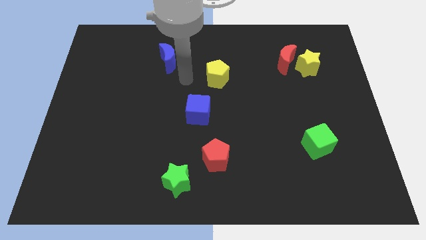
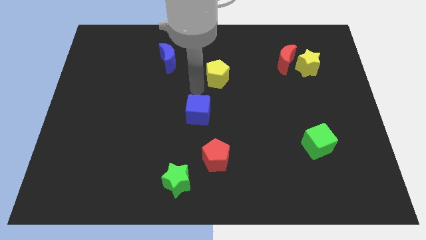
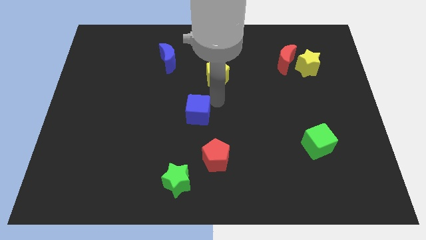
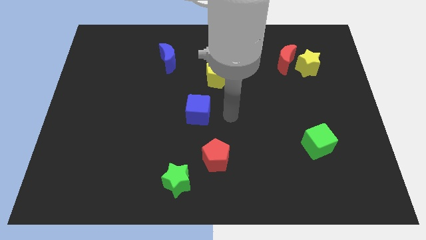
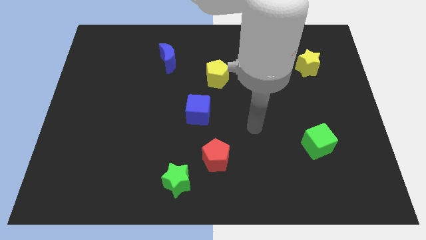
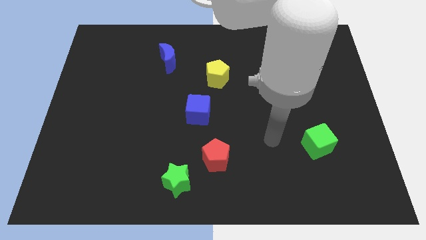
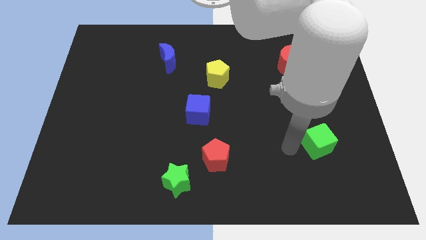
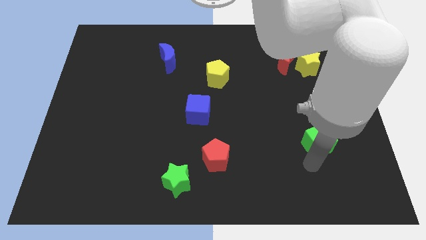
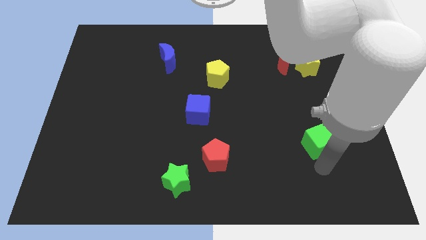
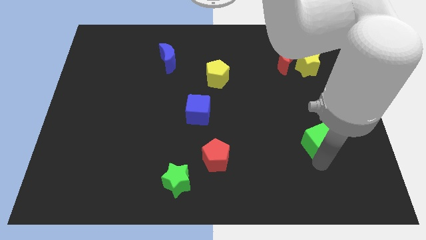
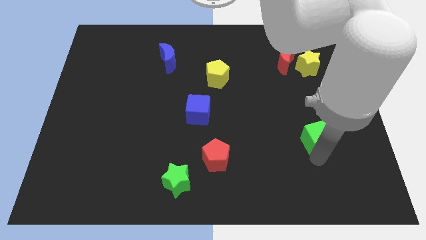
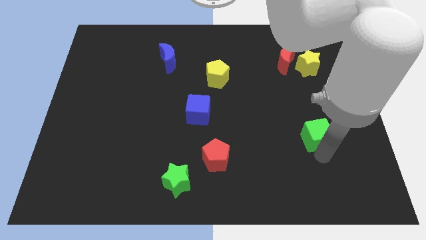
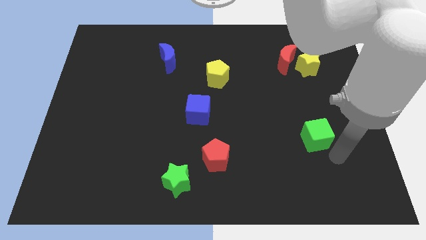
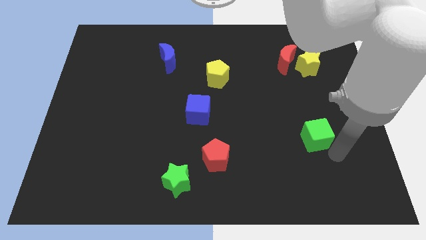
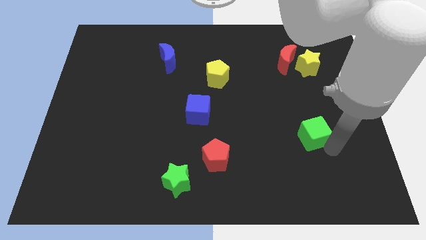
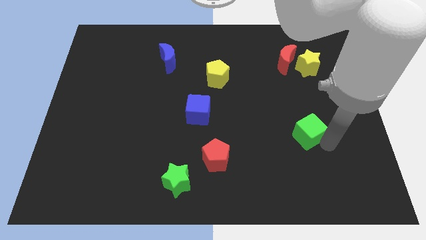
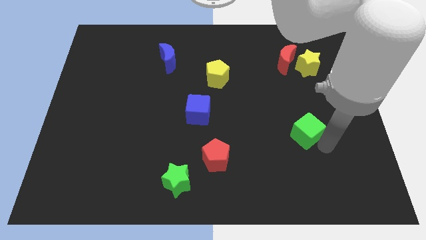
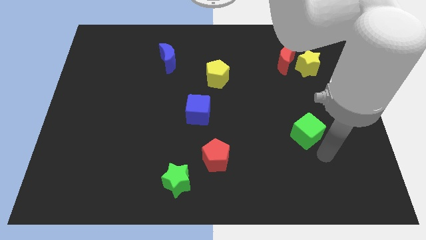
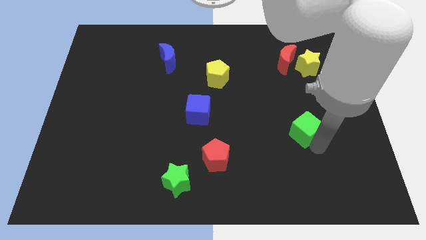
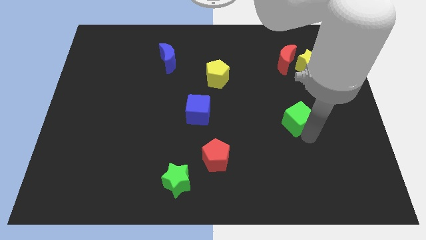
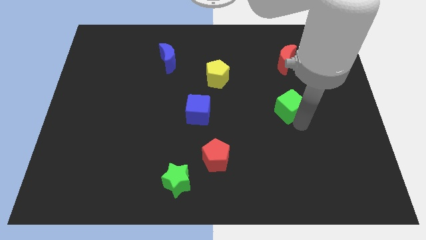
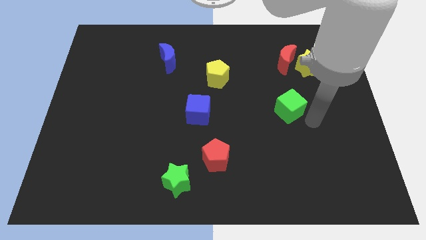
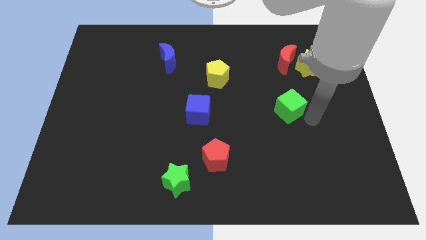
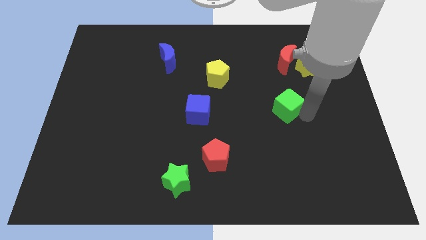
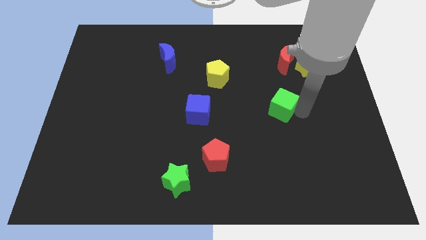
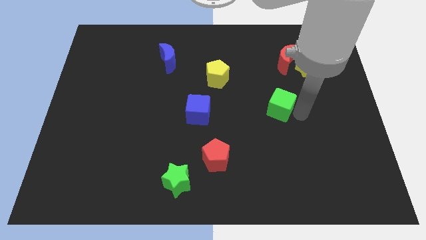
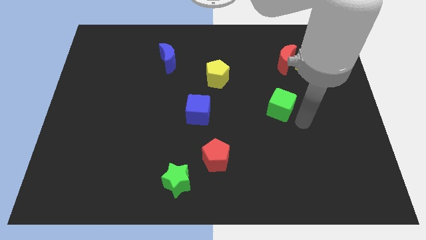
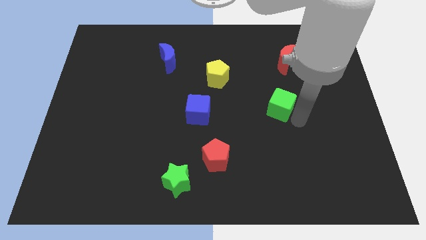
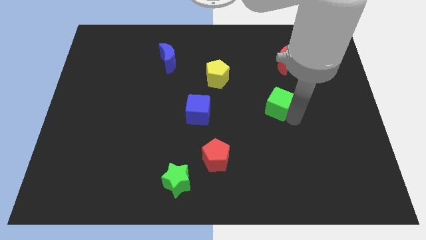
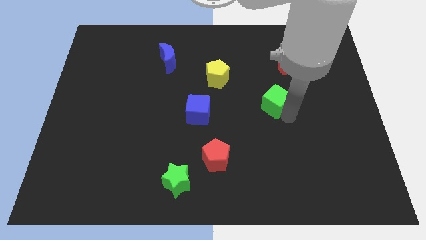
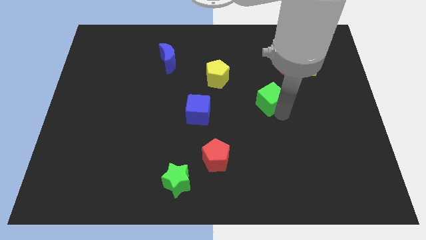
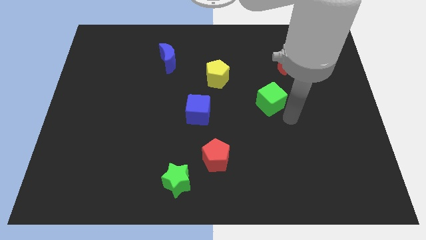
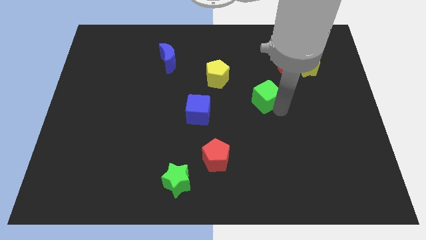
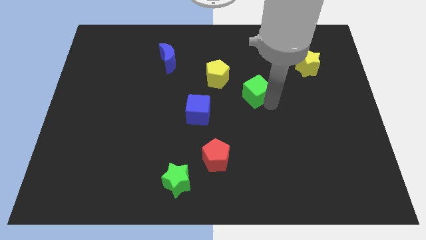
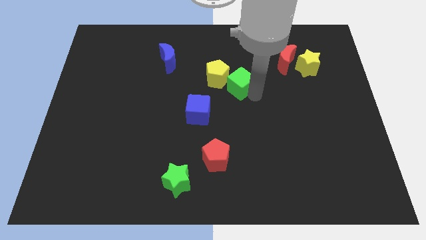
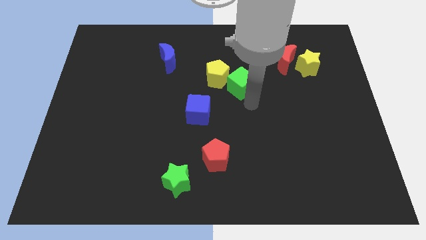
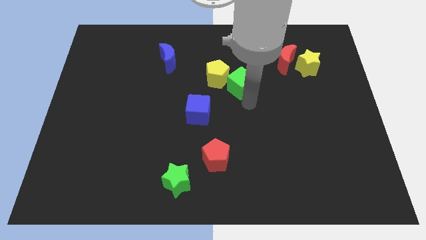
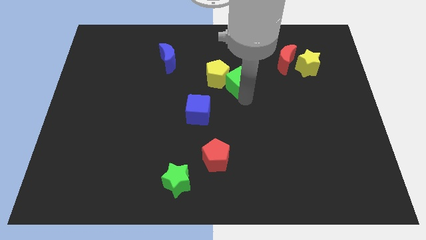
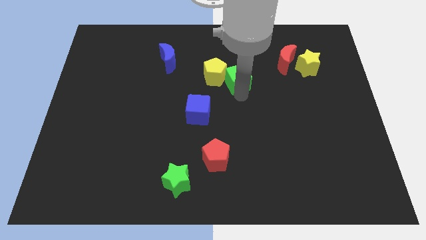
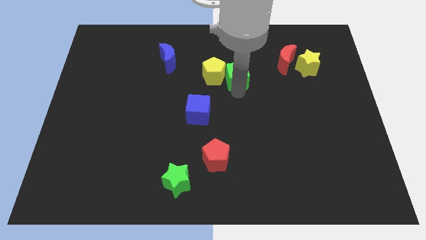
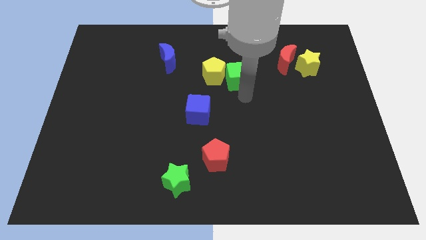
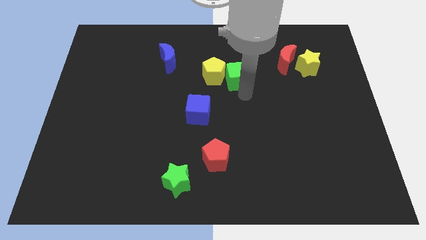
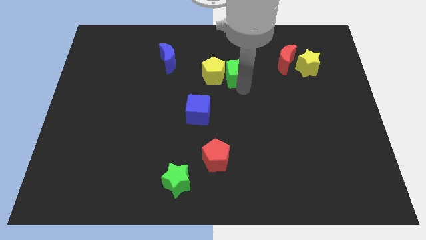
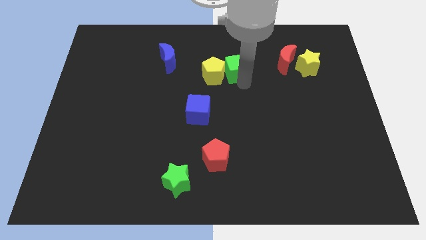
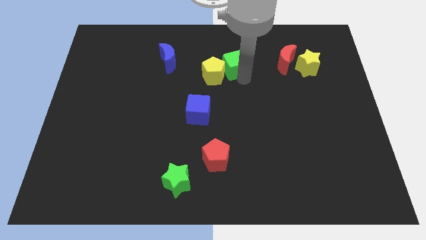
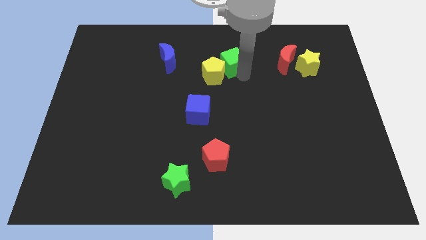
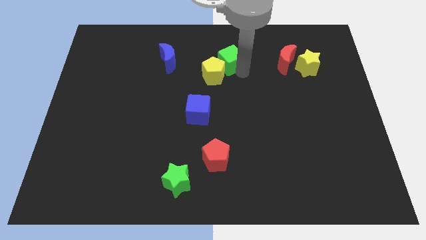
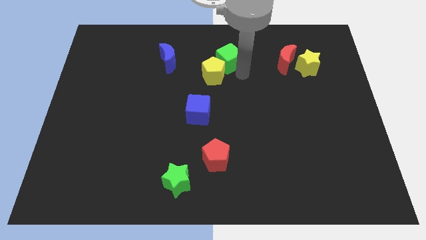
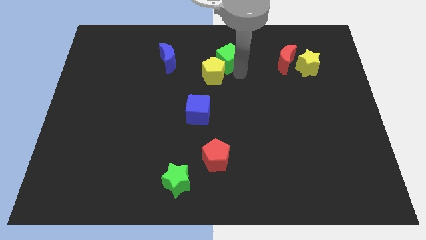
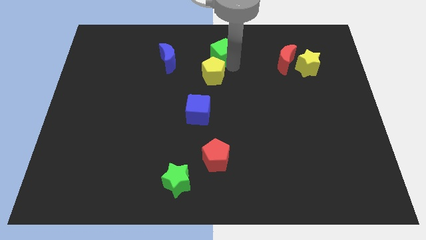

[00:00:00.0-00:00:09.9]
move the green cube to the towards your base

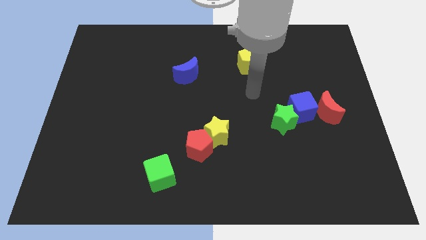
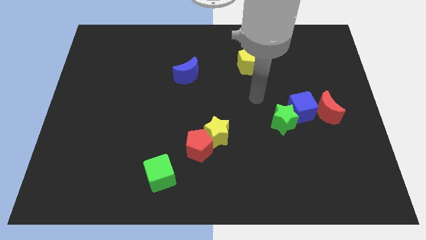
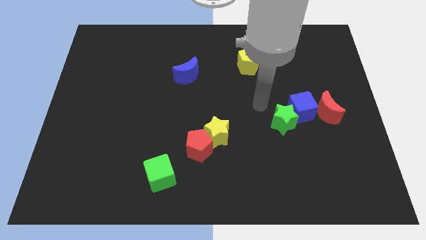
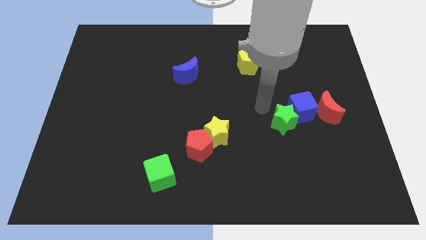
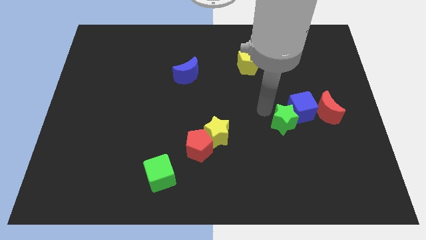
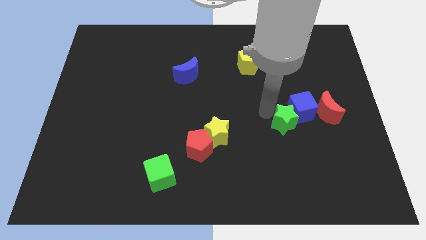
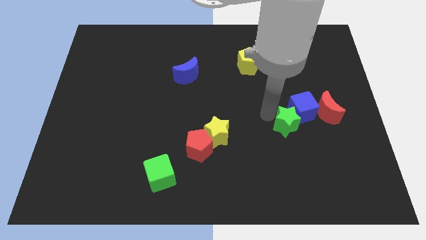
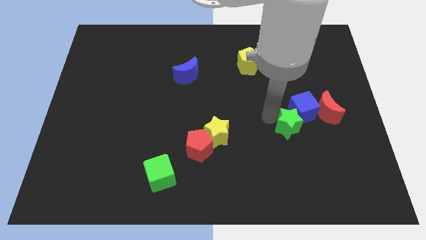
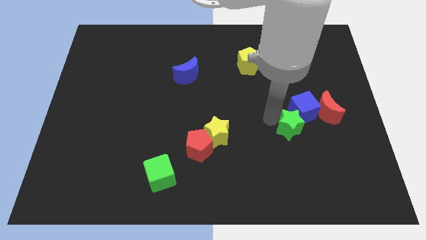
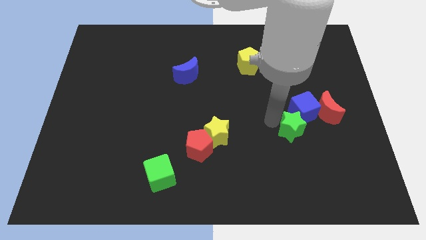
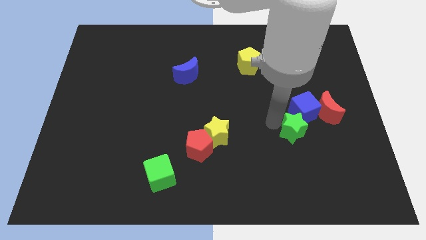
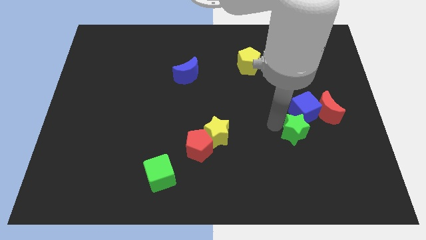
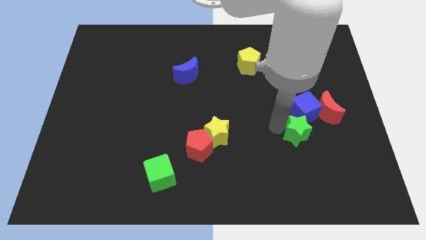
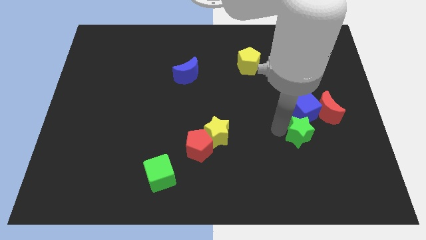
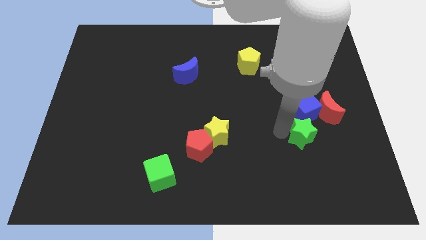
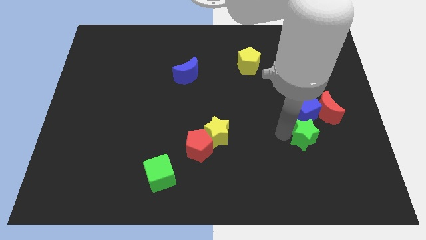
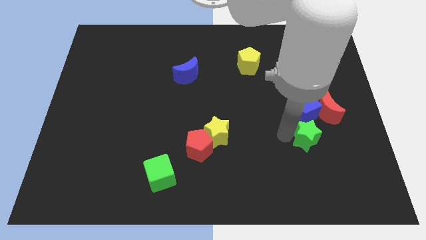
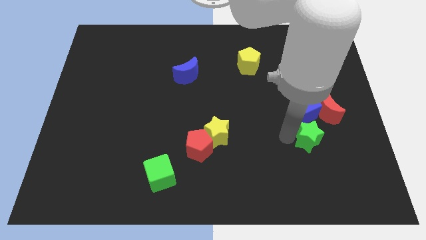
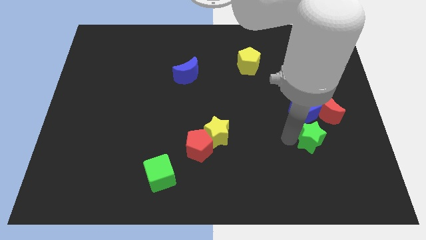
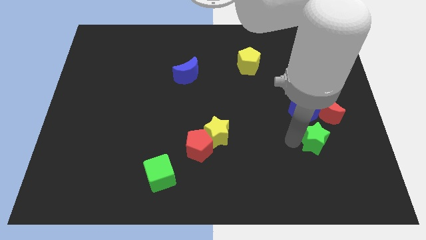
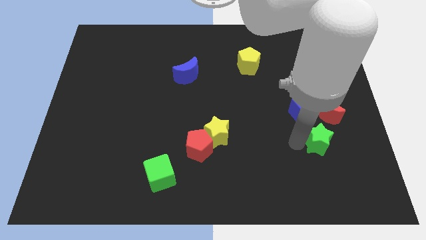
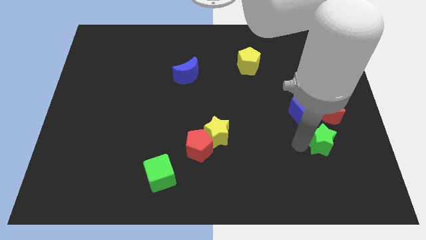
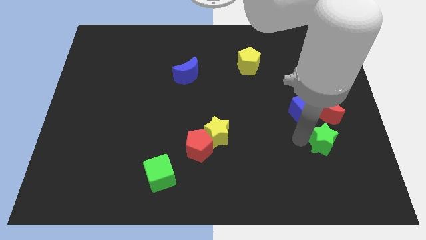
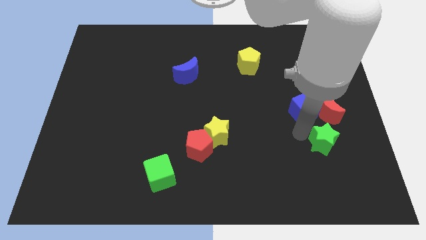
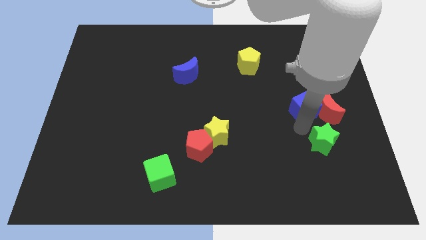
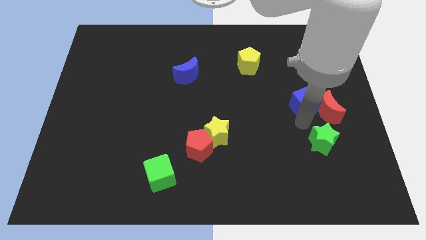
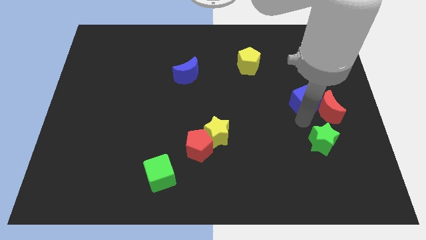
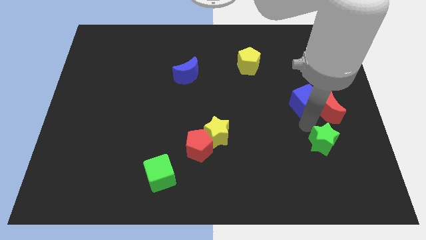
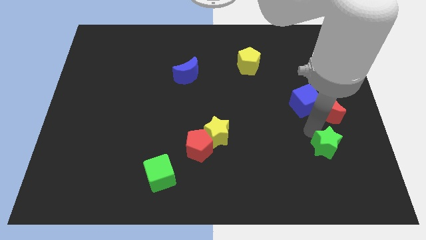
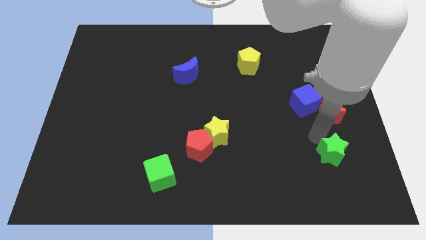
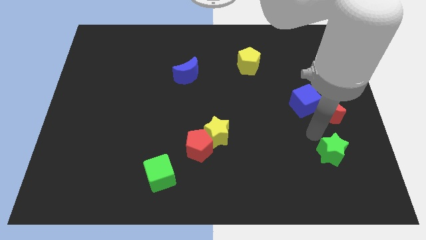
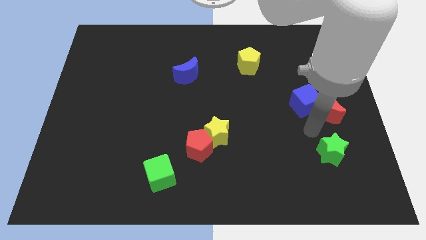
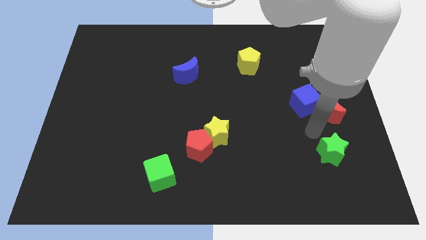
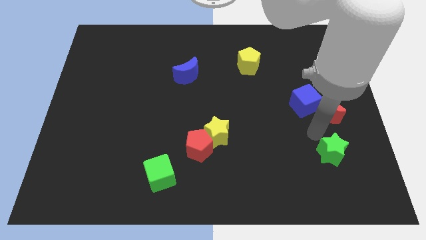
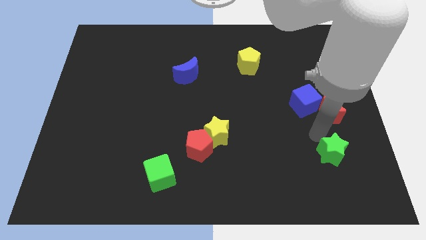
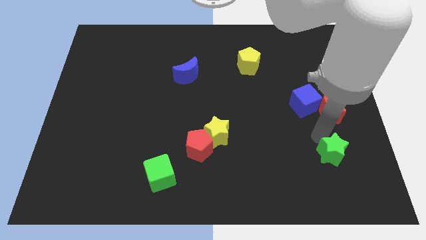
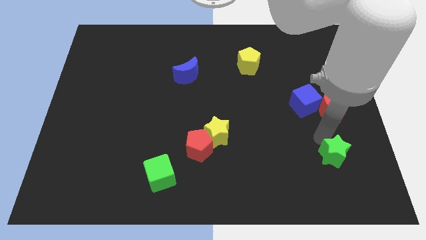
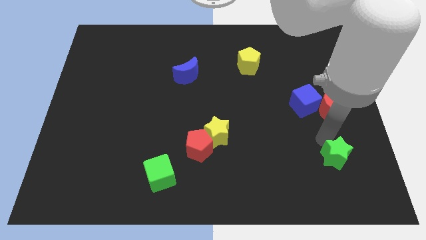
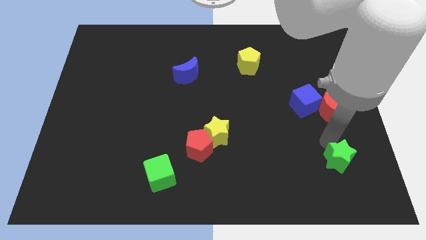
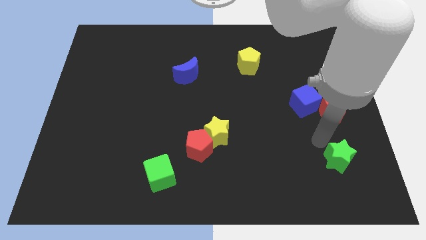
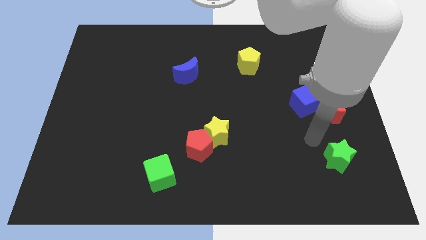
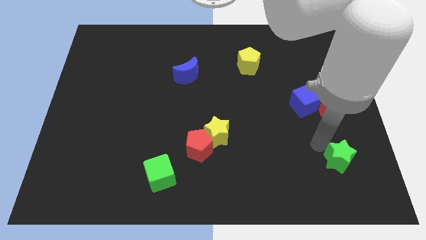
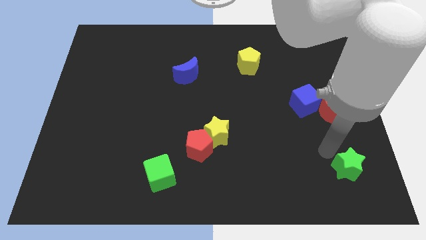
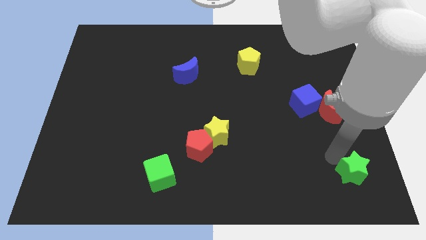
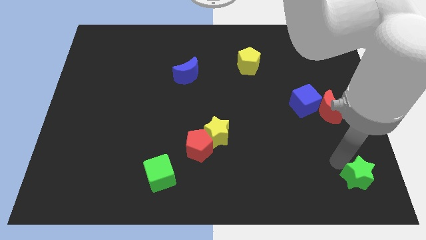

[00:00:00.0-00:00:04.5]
put the green star to the bottom right of the board
